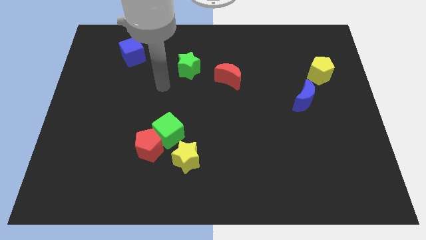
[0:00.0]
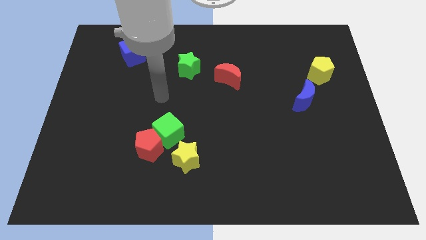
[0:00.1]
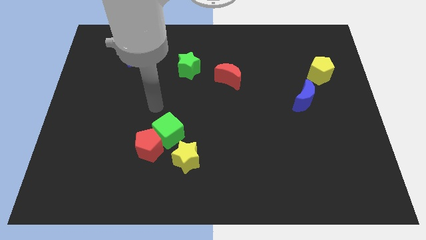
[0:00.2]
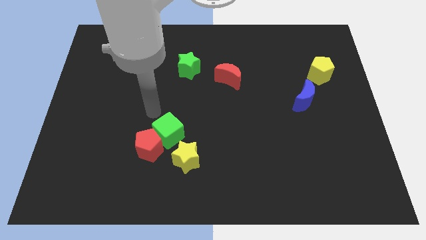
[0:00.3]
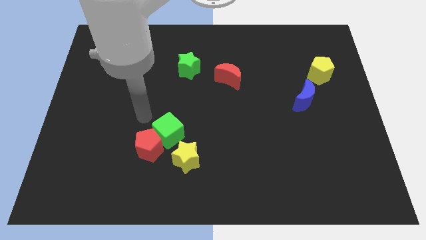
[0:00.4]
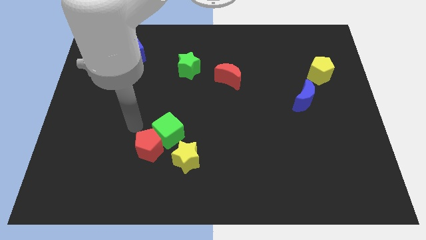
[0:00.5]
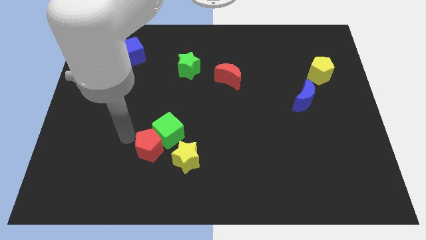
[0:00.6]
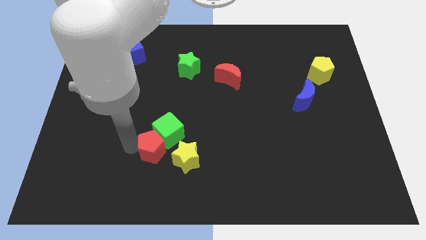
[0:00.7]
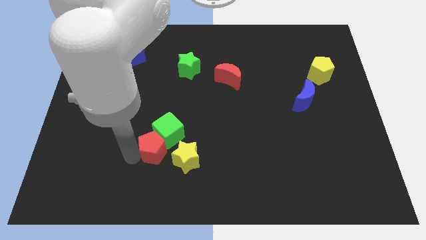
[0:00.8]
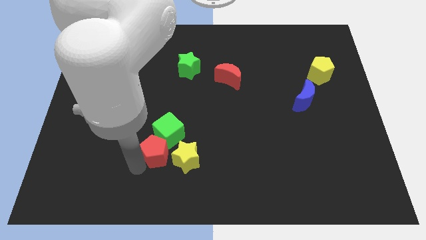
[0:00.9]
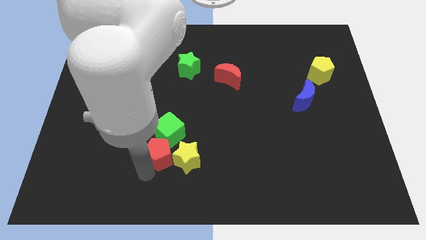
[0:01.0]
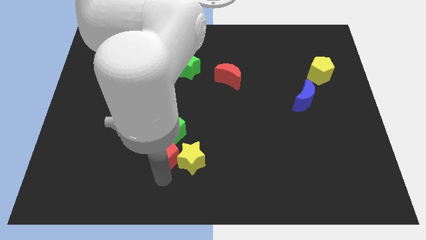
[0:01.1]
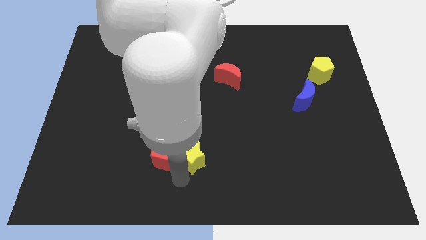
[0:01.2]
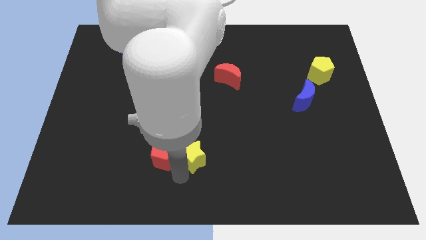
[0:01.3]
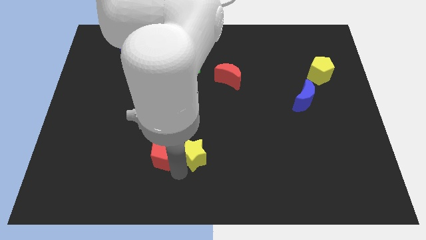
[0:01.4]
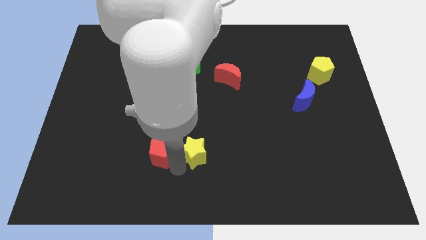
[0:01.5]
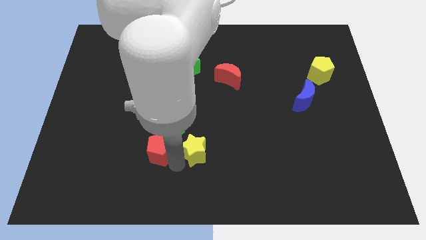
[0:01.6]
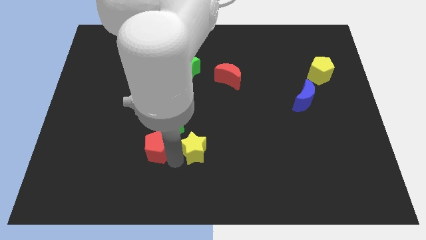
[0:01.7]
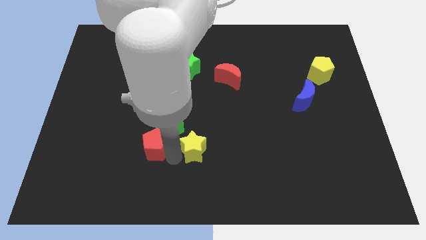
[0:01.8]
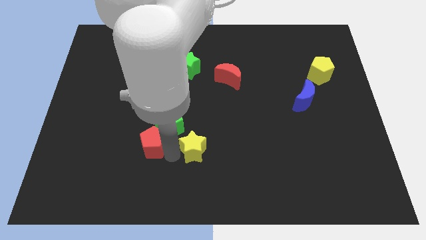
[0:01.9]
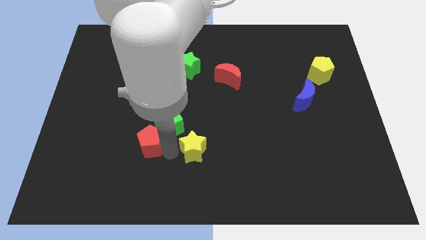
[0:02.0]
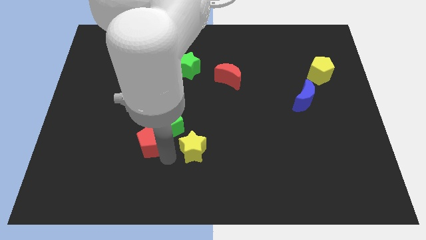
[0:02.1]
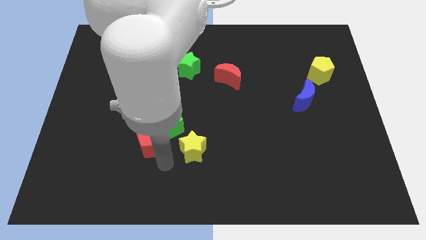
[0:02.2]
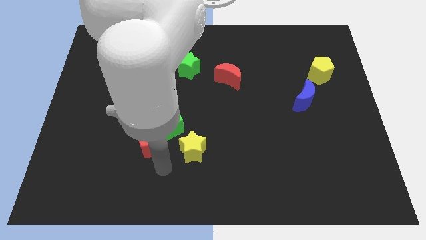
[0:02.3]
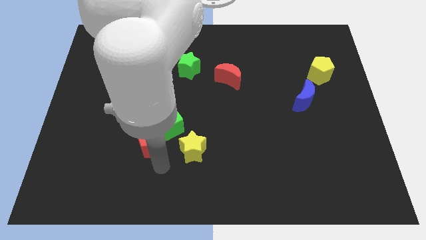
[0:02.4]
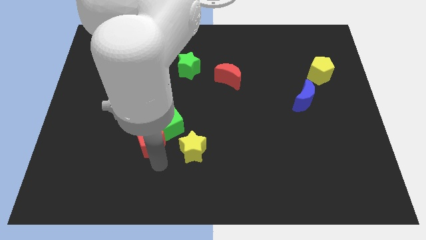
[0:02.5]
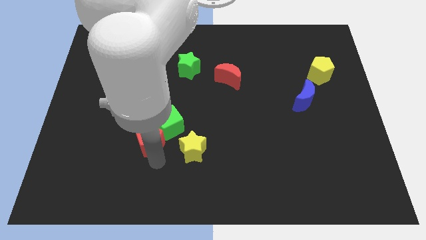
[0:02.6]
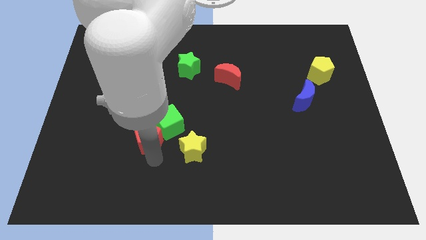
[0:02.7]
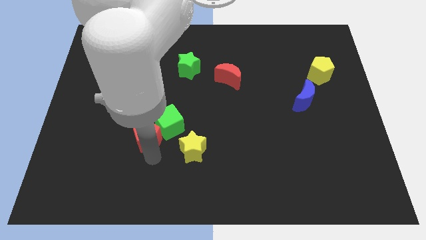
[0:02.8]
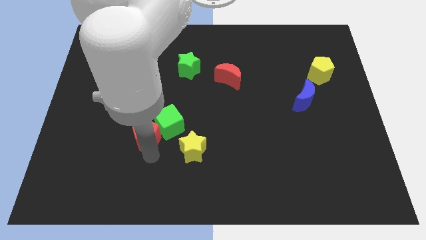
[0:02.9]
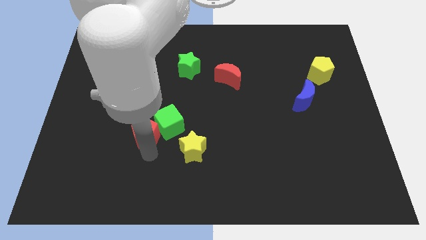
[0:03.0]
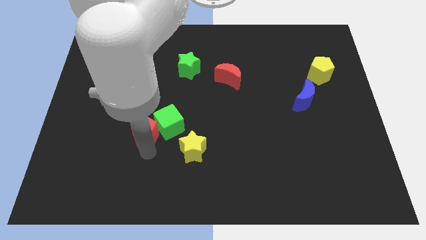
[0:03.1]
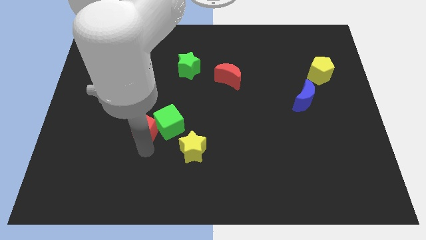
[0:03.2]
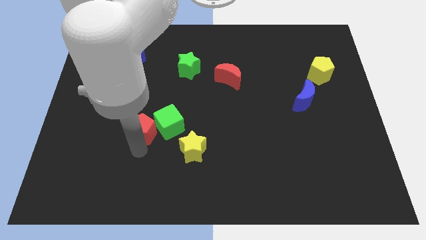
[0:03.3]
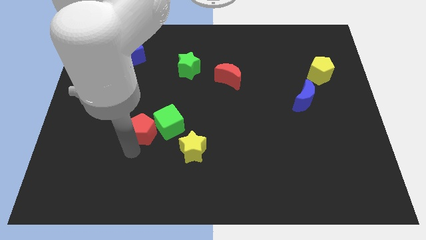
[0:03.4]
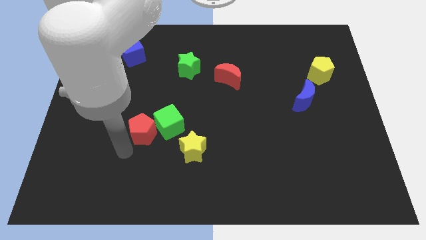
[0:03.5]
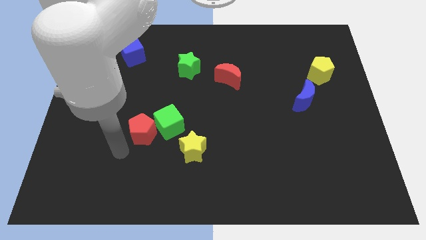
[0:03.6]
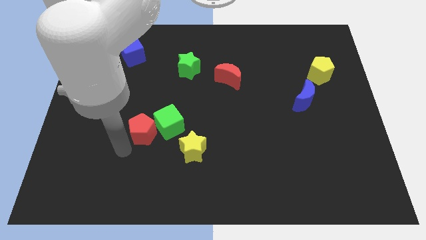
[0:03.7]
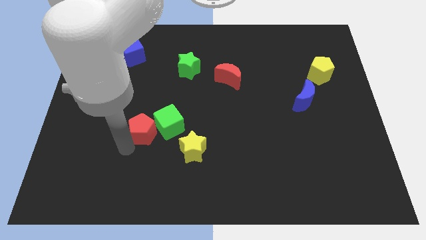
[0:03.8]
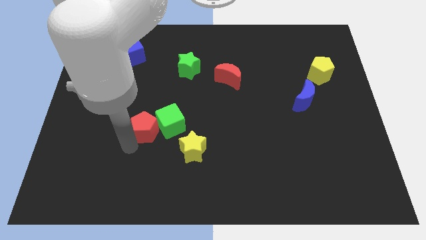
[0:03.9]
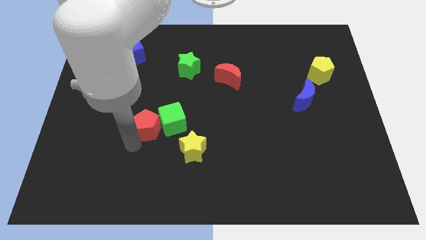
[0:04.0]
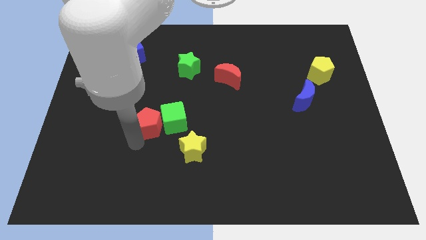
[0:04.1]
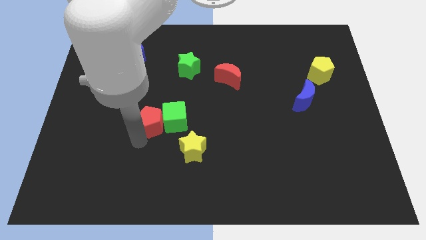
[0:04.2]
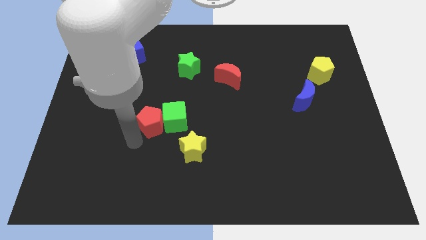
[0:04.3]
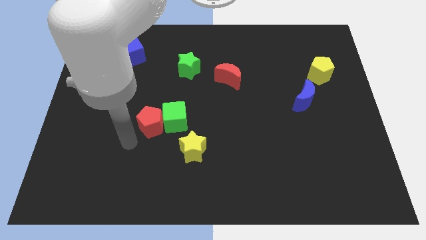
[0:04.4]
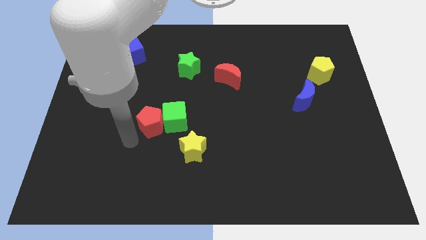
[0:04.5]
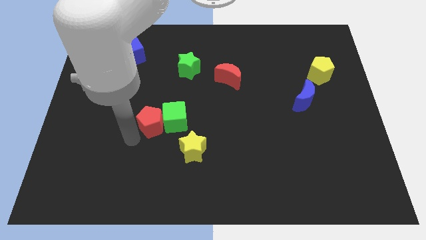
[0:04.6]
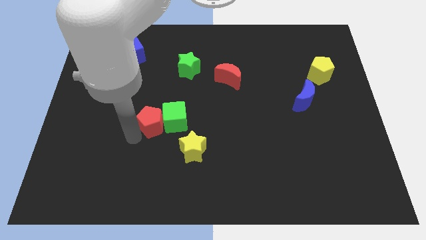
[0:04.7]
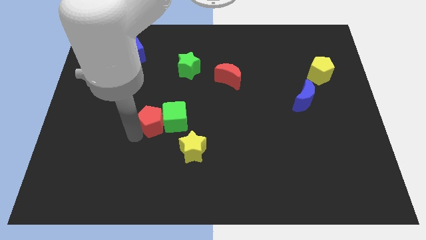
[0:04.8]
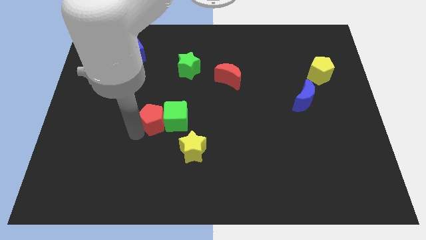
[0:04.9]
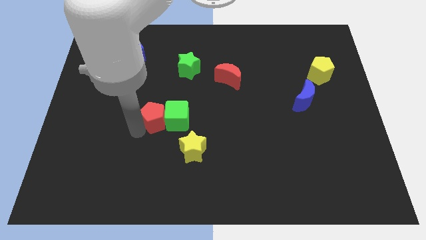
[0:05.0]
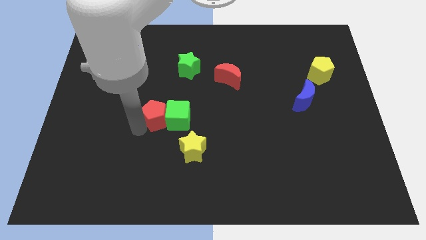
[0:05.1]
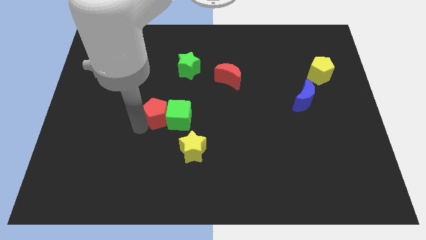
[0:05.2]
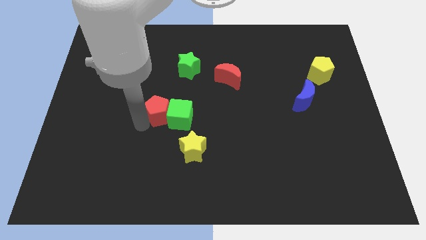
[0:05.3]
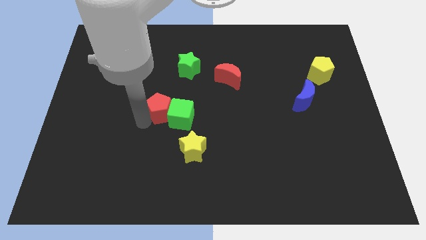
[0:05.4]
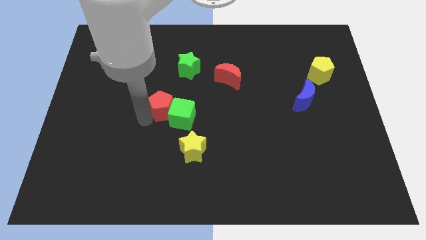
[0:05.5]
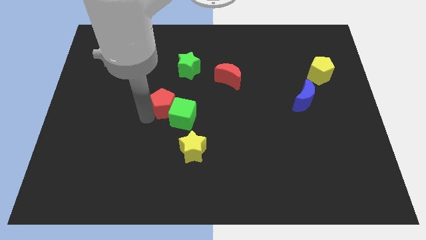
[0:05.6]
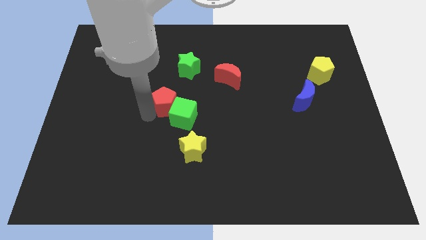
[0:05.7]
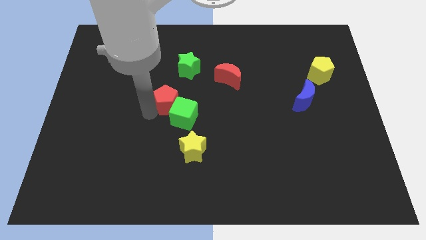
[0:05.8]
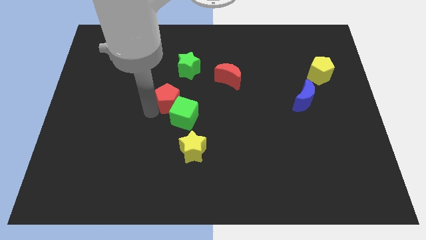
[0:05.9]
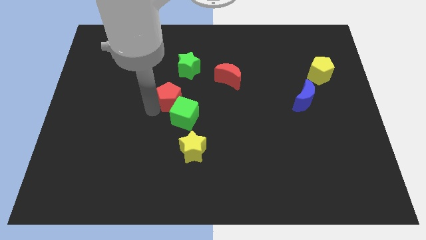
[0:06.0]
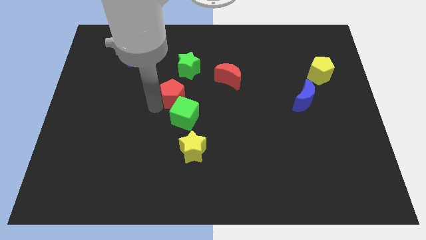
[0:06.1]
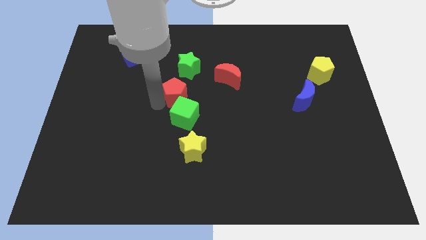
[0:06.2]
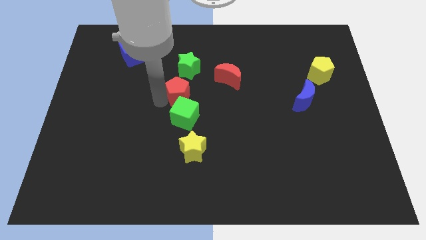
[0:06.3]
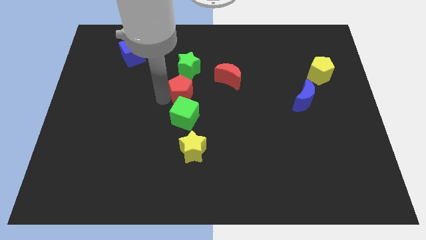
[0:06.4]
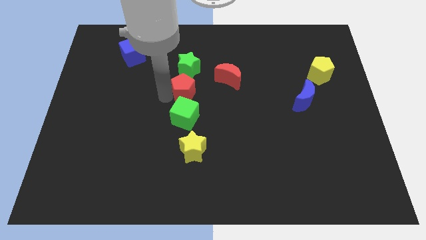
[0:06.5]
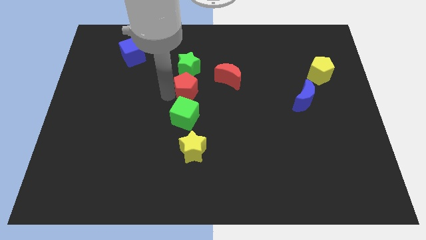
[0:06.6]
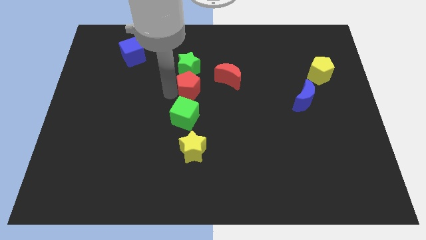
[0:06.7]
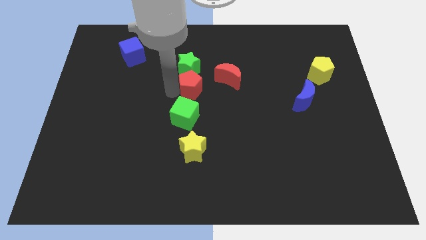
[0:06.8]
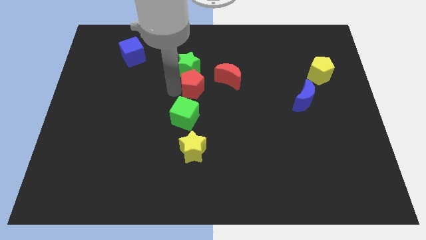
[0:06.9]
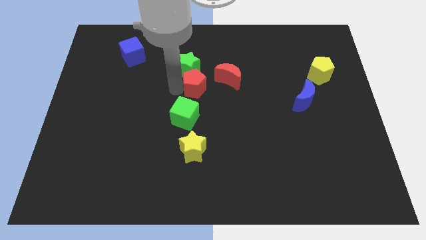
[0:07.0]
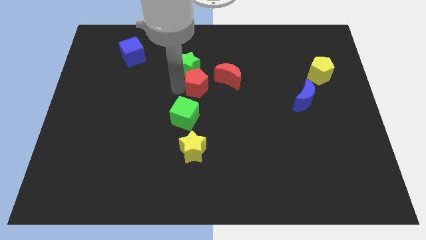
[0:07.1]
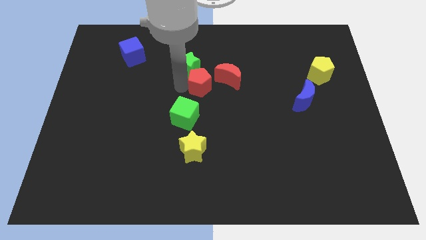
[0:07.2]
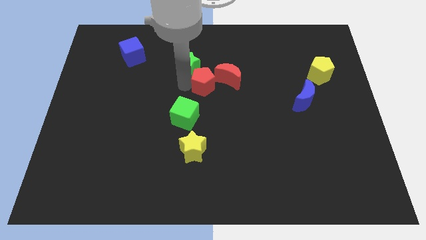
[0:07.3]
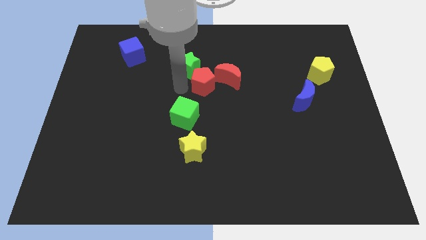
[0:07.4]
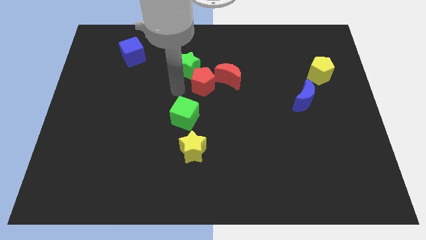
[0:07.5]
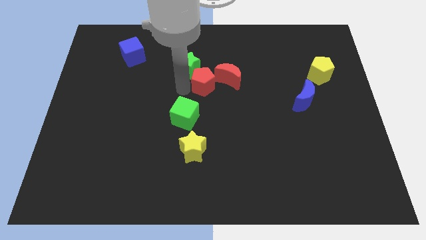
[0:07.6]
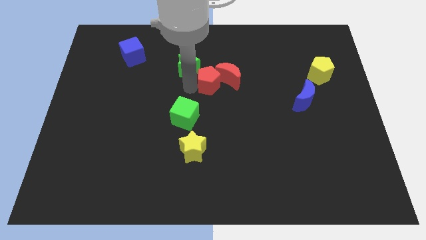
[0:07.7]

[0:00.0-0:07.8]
put the red pentagon next to the red moon
